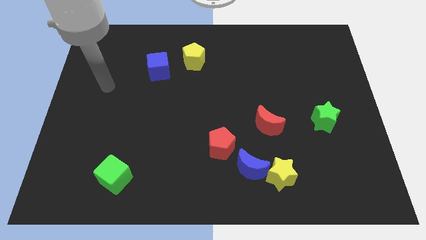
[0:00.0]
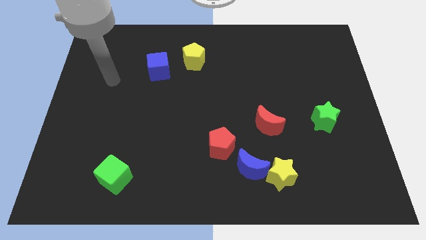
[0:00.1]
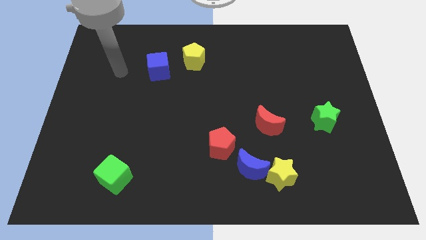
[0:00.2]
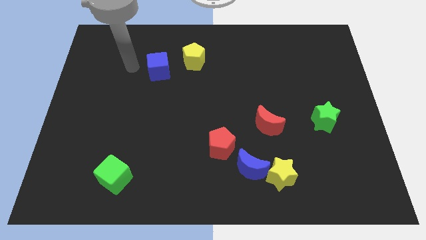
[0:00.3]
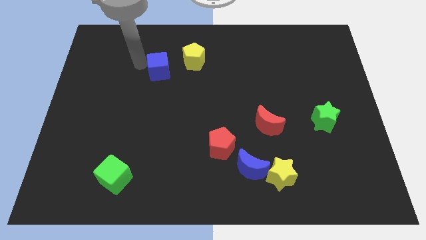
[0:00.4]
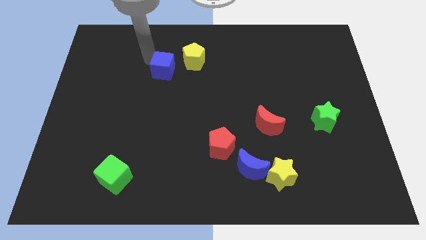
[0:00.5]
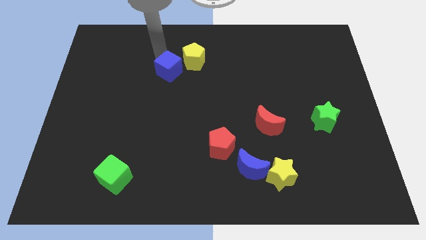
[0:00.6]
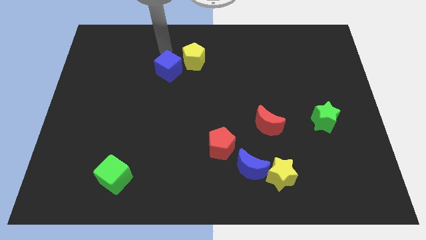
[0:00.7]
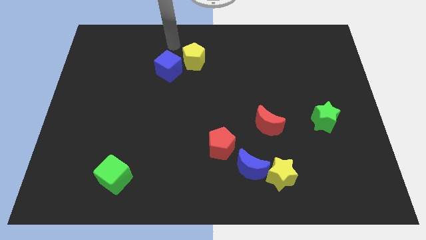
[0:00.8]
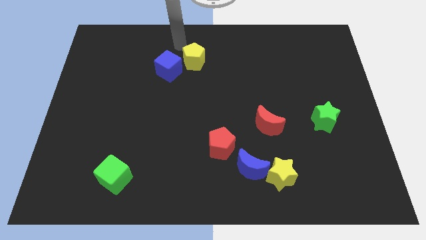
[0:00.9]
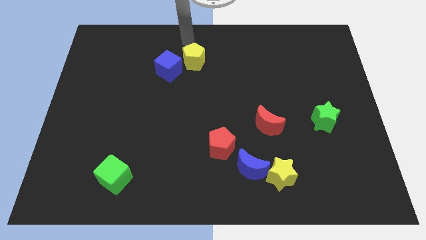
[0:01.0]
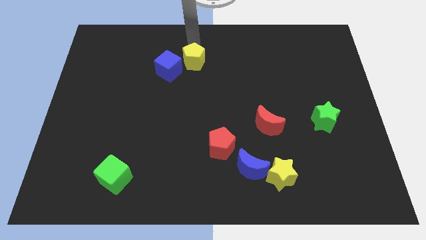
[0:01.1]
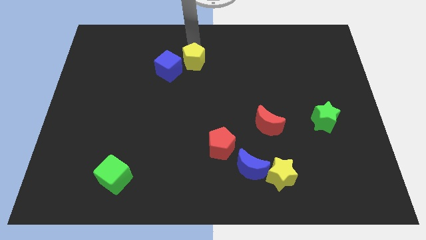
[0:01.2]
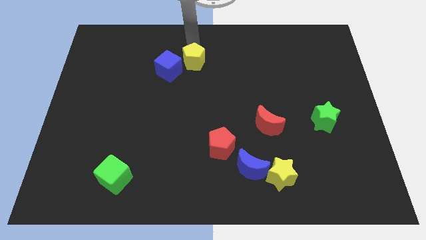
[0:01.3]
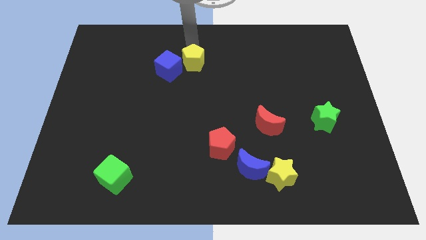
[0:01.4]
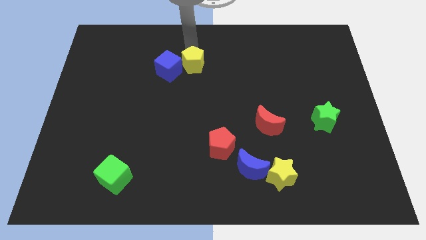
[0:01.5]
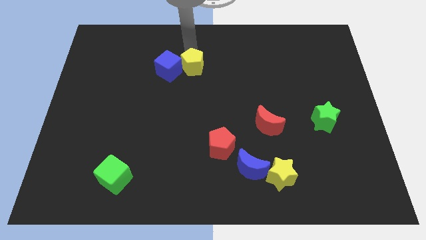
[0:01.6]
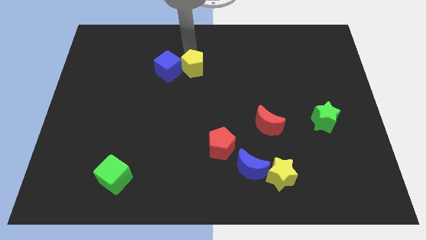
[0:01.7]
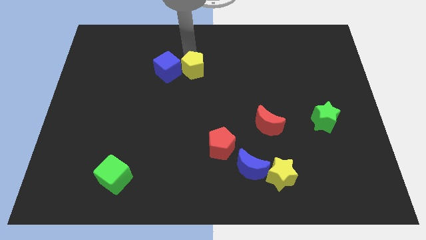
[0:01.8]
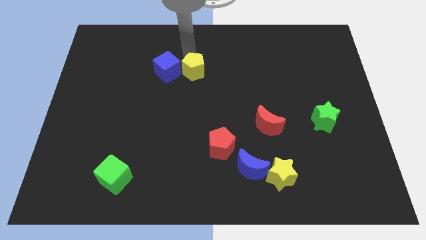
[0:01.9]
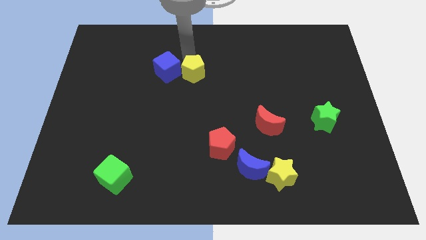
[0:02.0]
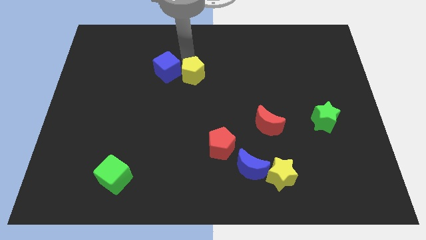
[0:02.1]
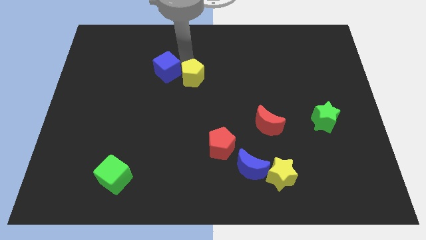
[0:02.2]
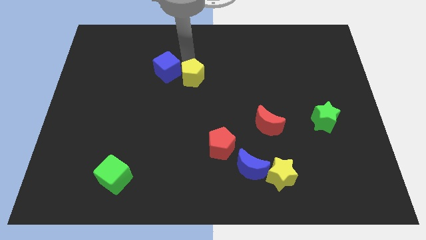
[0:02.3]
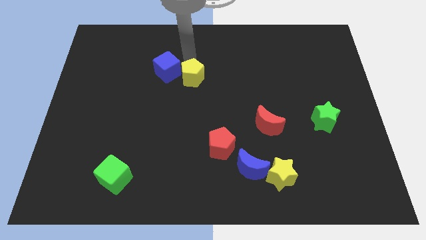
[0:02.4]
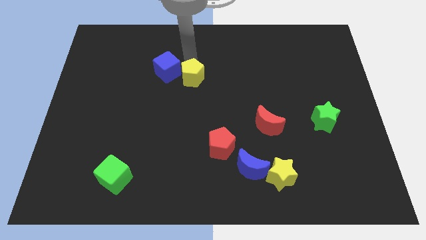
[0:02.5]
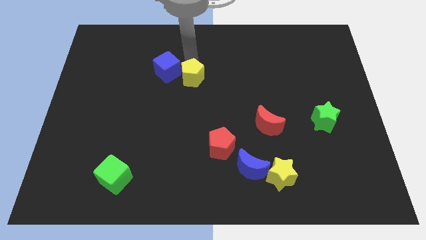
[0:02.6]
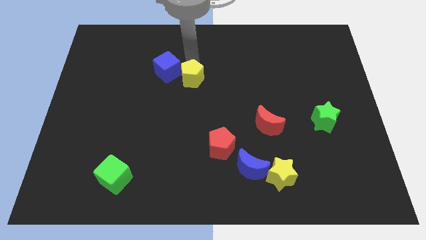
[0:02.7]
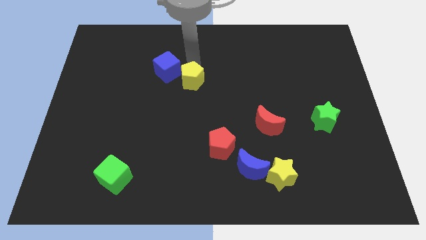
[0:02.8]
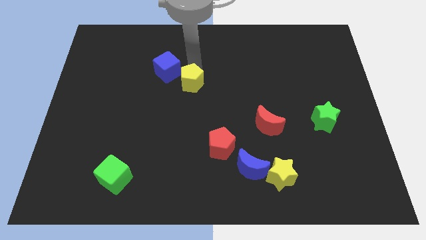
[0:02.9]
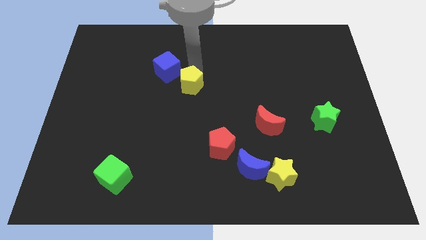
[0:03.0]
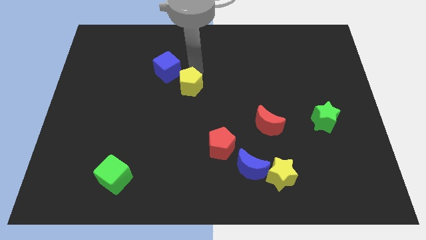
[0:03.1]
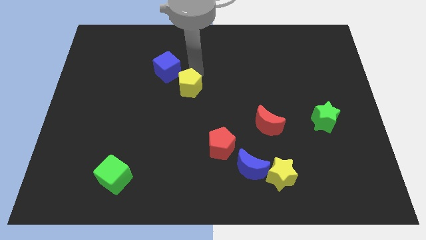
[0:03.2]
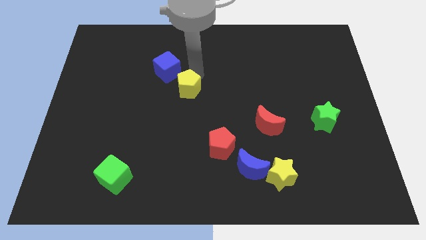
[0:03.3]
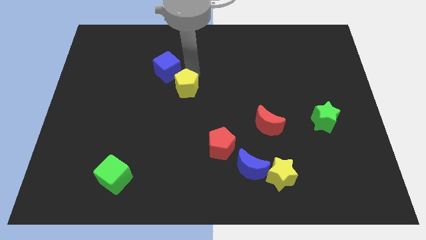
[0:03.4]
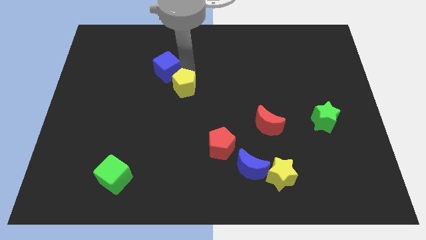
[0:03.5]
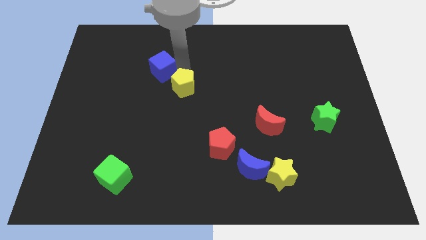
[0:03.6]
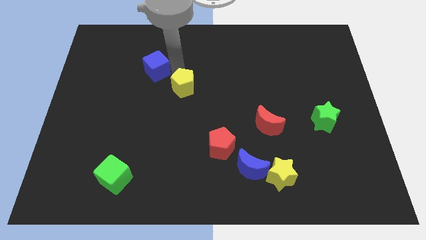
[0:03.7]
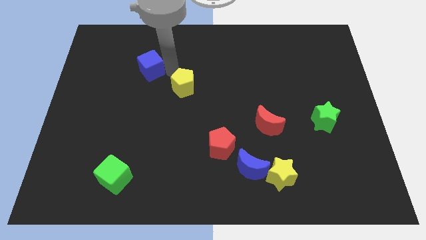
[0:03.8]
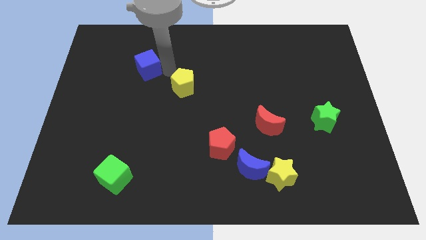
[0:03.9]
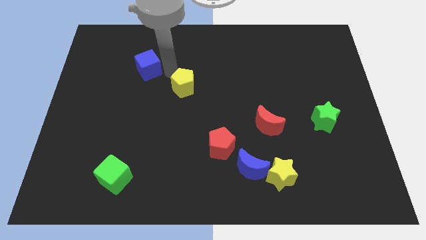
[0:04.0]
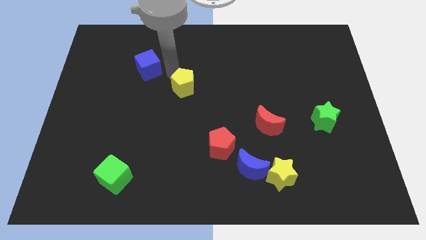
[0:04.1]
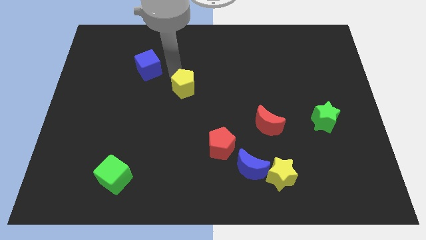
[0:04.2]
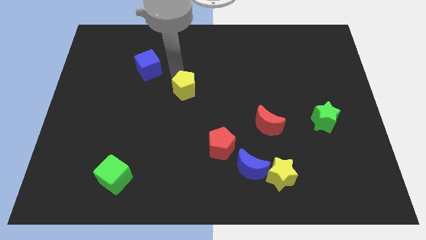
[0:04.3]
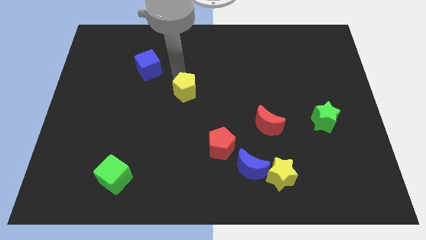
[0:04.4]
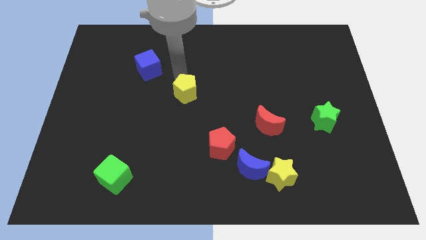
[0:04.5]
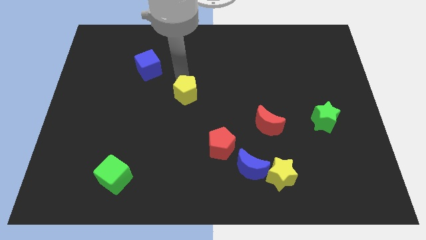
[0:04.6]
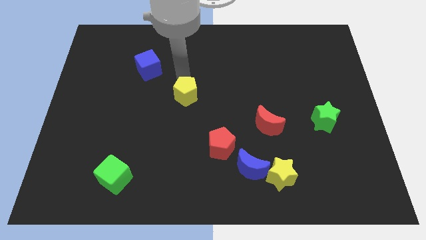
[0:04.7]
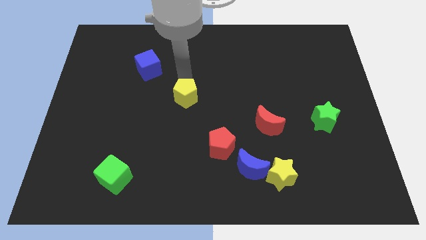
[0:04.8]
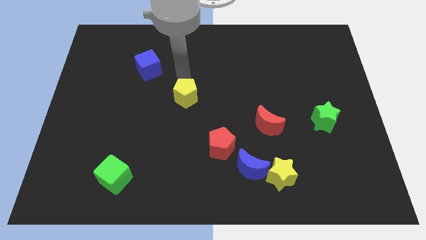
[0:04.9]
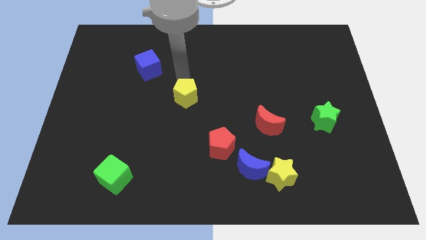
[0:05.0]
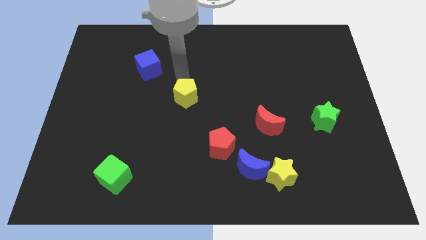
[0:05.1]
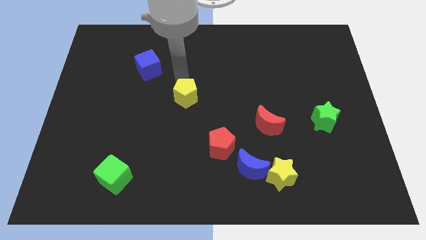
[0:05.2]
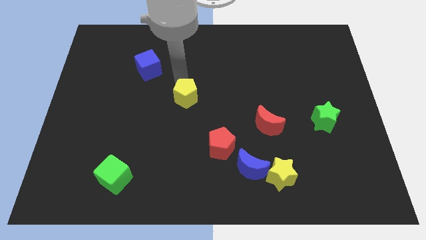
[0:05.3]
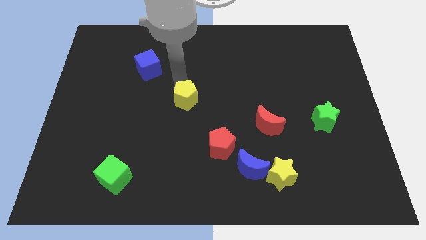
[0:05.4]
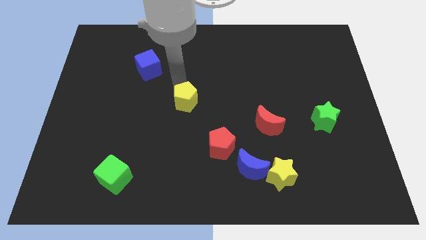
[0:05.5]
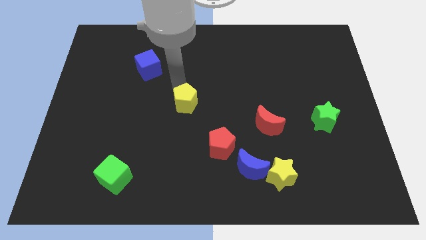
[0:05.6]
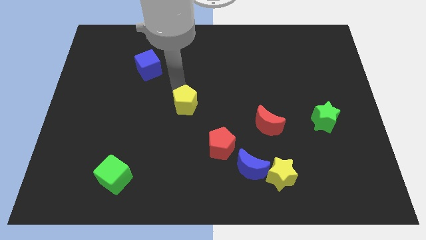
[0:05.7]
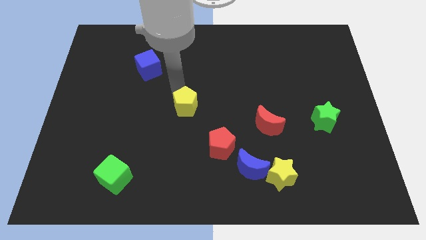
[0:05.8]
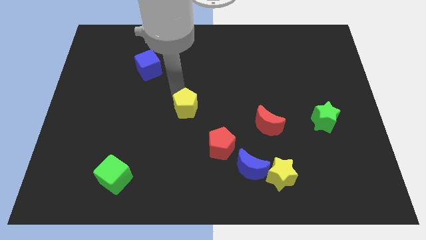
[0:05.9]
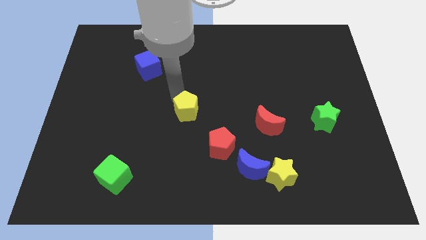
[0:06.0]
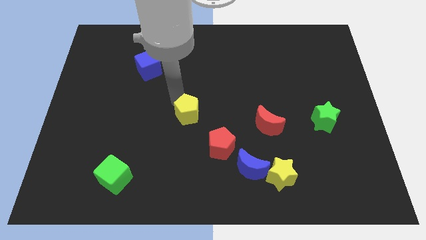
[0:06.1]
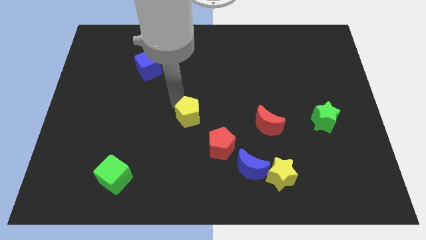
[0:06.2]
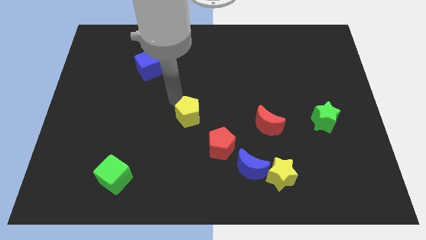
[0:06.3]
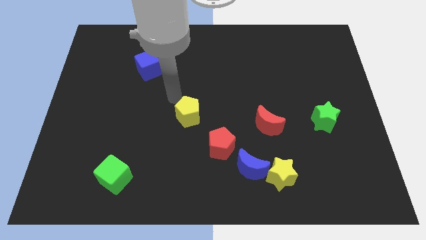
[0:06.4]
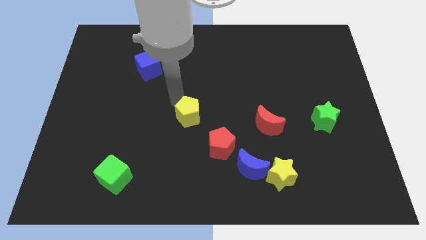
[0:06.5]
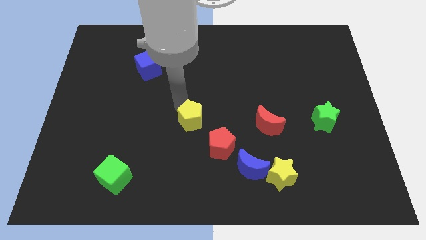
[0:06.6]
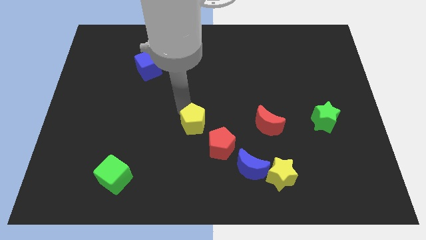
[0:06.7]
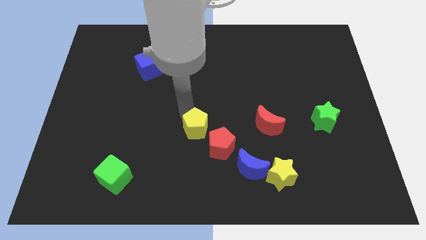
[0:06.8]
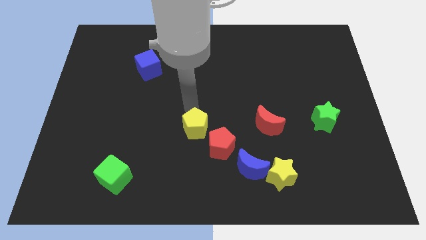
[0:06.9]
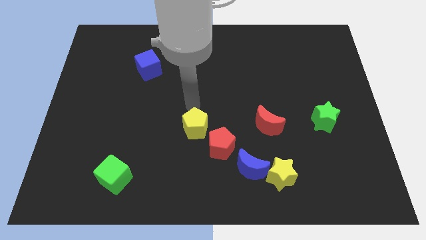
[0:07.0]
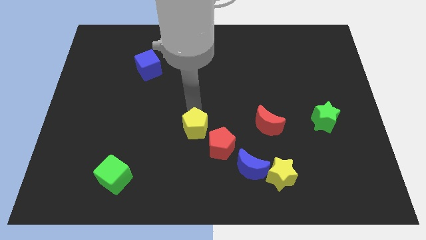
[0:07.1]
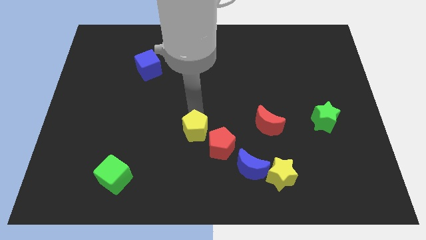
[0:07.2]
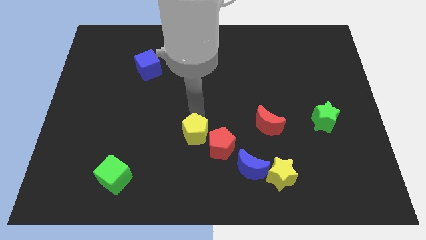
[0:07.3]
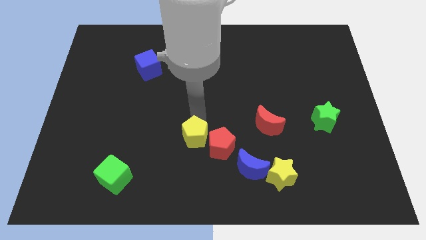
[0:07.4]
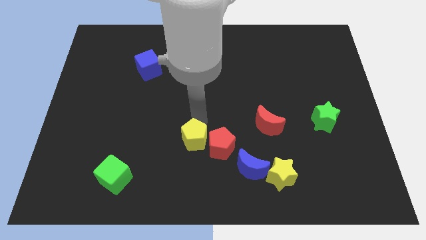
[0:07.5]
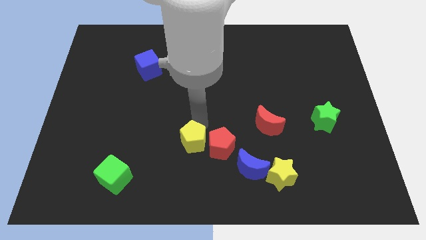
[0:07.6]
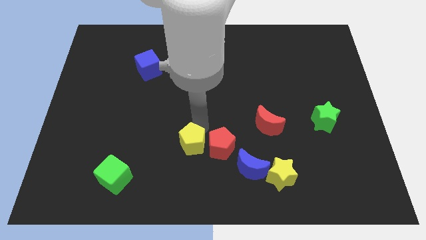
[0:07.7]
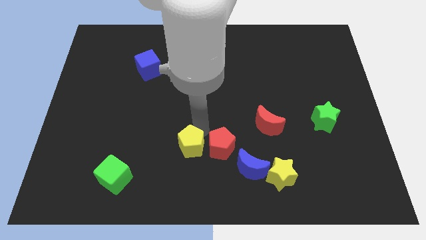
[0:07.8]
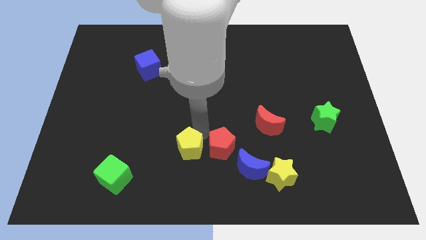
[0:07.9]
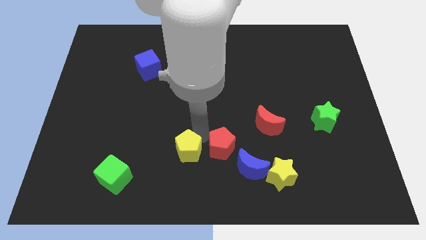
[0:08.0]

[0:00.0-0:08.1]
put the yellow pentagon to the left of the blue moon
